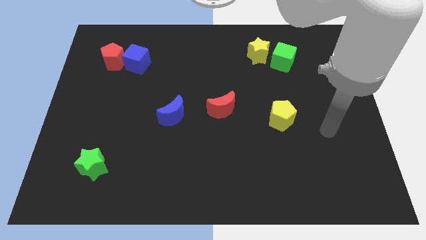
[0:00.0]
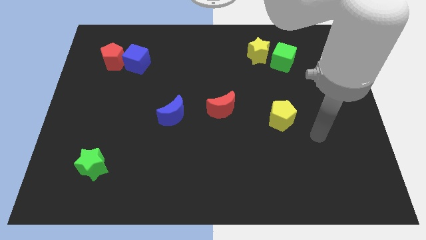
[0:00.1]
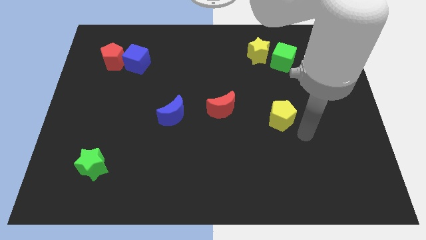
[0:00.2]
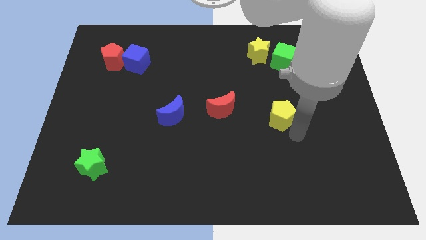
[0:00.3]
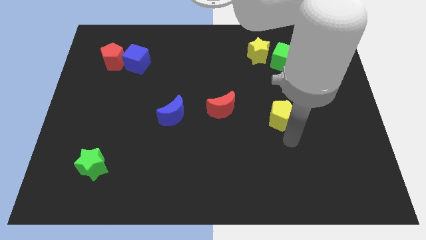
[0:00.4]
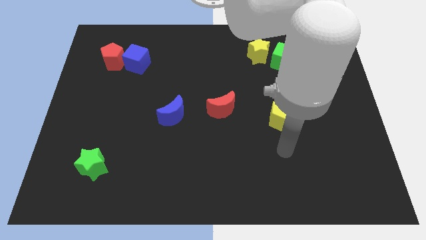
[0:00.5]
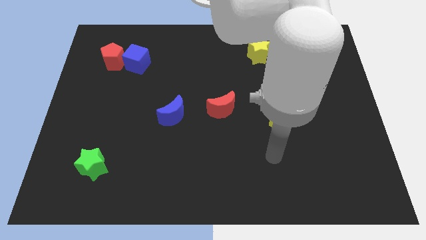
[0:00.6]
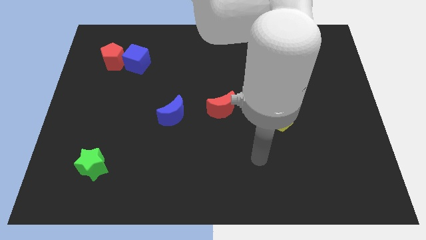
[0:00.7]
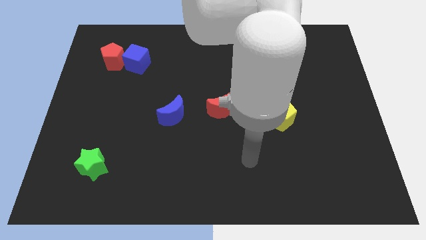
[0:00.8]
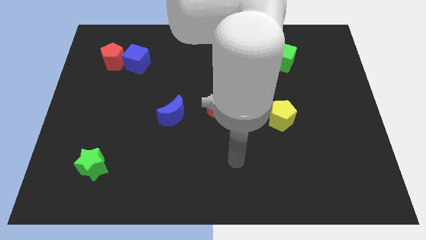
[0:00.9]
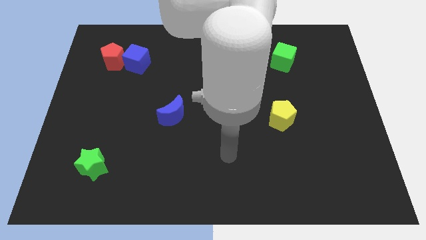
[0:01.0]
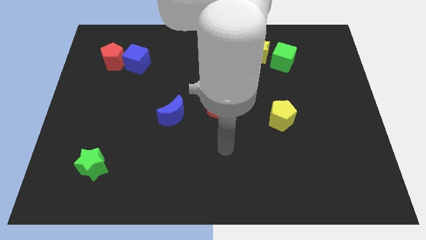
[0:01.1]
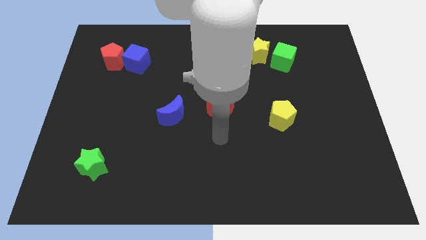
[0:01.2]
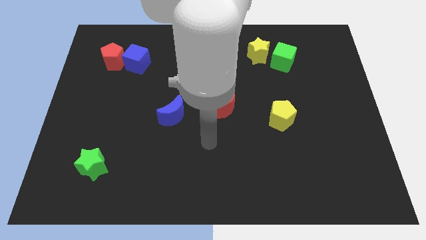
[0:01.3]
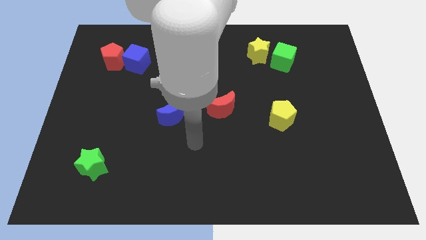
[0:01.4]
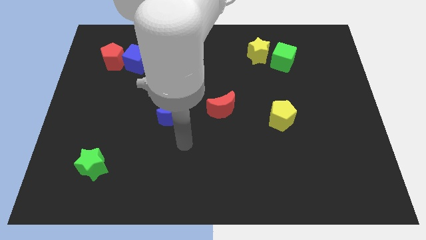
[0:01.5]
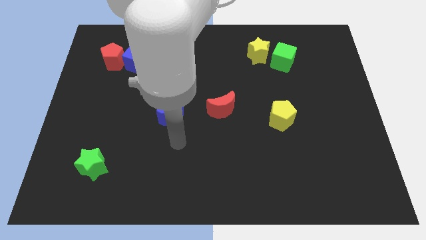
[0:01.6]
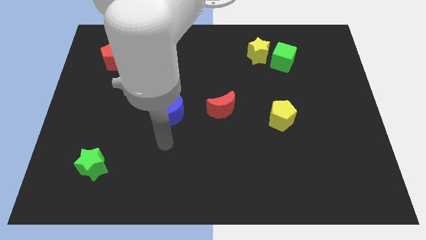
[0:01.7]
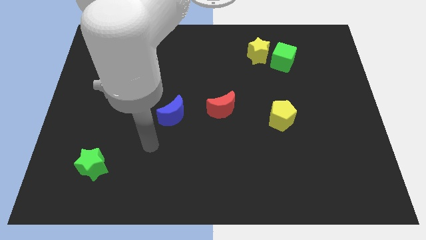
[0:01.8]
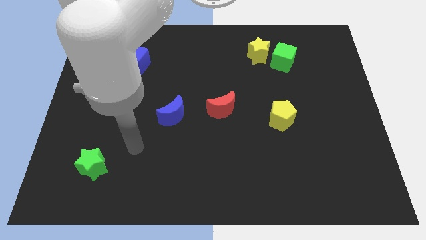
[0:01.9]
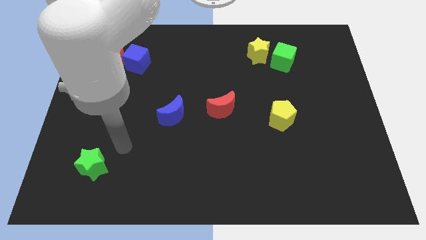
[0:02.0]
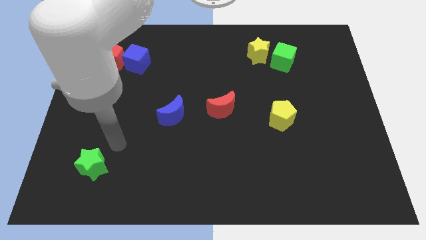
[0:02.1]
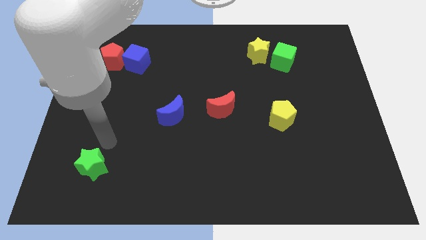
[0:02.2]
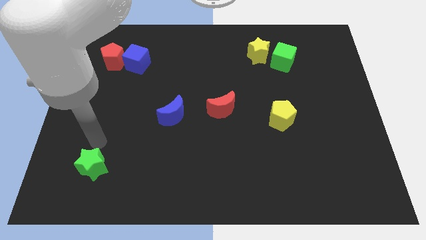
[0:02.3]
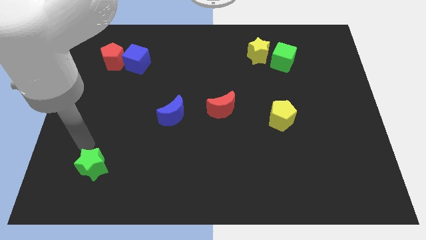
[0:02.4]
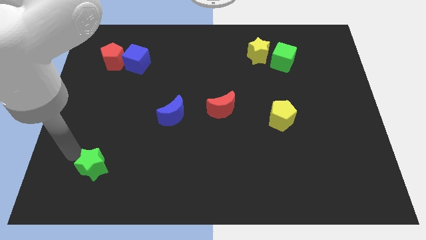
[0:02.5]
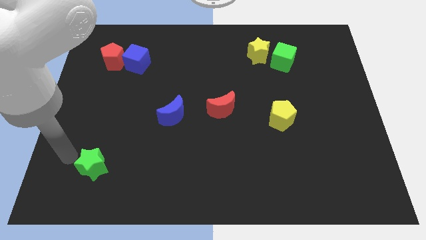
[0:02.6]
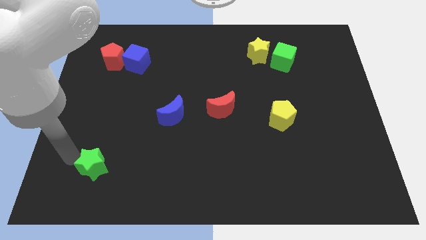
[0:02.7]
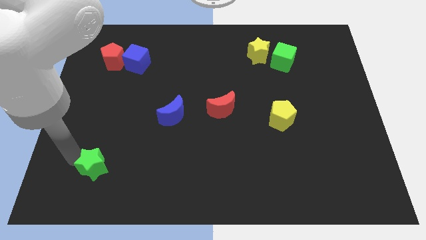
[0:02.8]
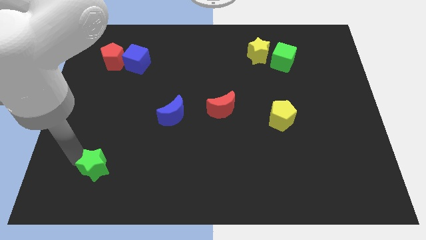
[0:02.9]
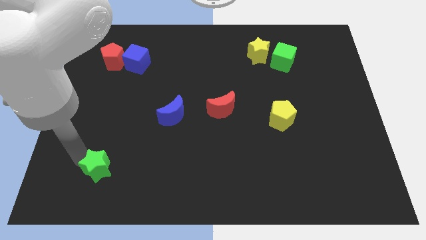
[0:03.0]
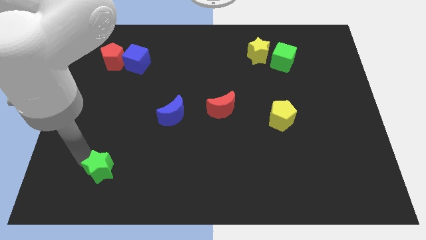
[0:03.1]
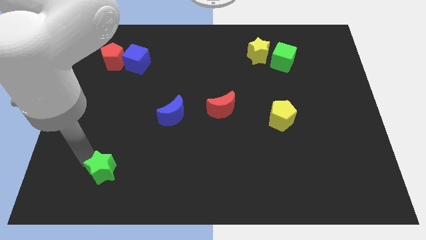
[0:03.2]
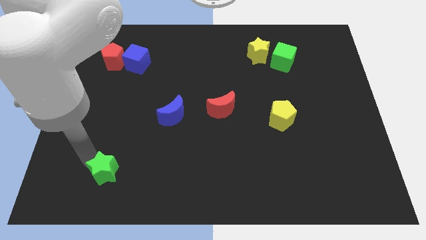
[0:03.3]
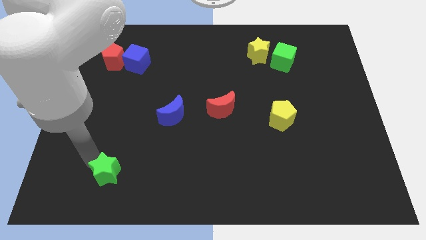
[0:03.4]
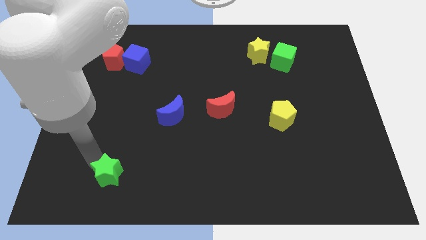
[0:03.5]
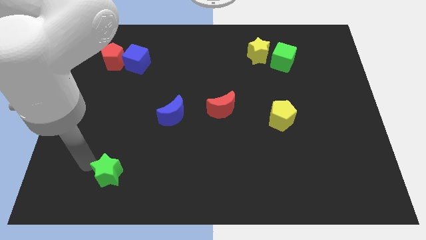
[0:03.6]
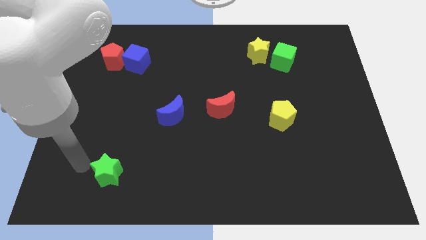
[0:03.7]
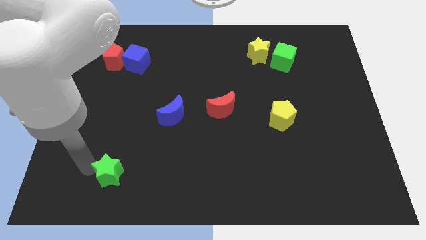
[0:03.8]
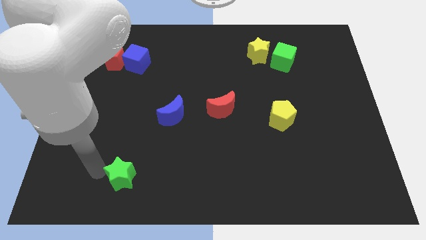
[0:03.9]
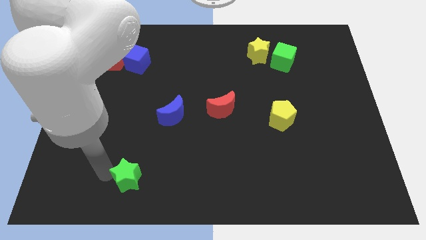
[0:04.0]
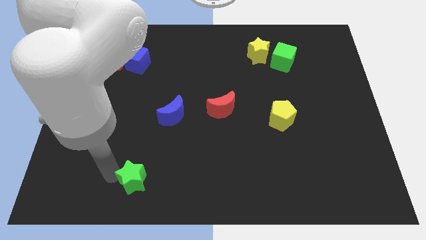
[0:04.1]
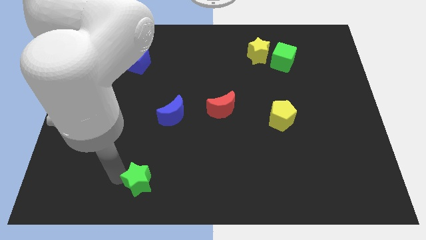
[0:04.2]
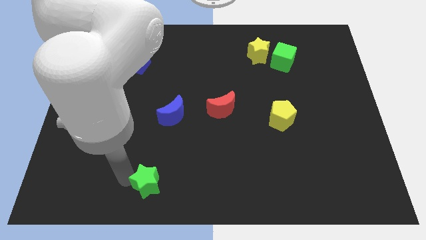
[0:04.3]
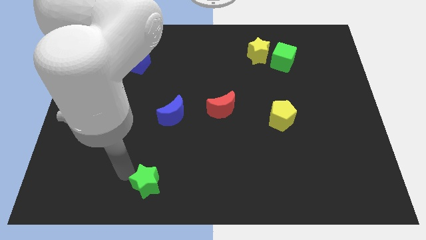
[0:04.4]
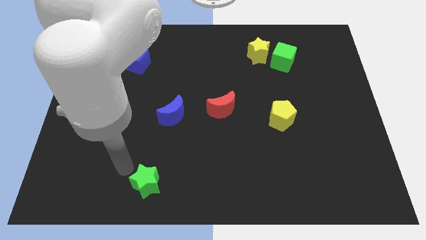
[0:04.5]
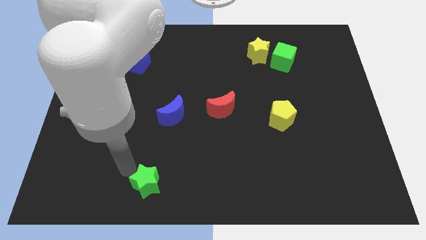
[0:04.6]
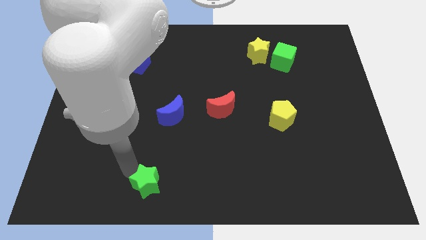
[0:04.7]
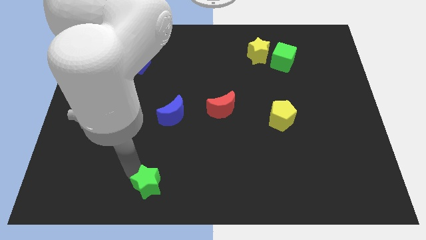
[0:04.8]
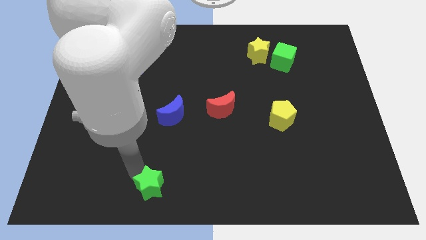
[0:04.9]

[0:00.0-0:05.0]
push the green star to the bottom side

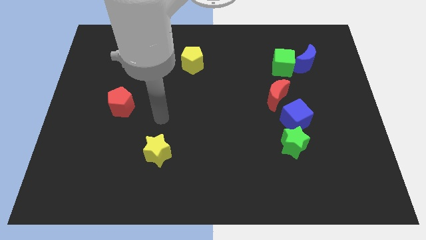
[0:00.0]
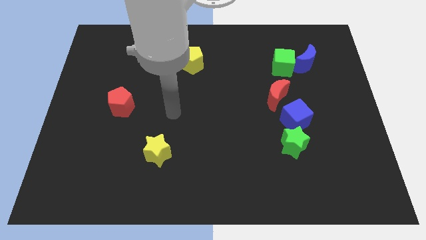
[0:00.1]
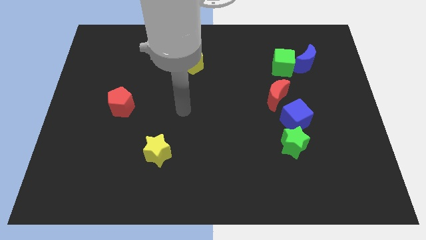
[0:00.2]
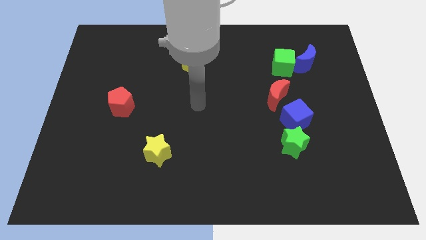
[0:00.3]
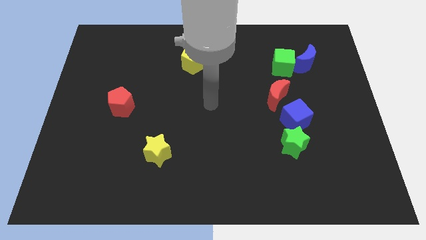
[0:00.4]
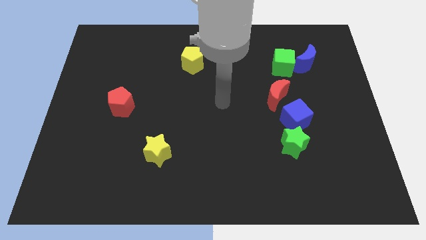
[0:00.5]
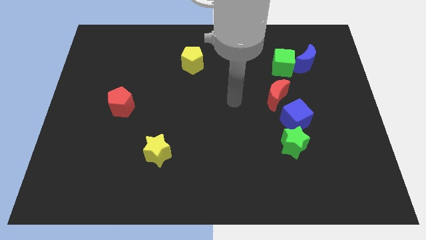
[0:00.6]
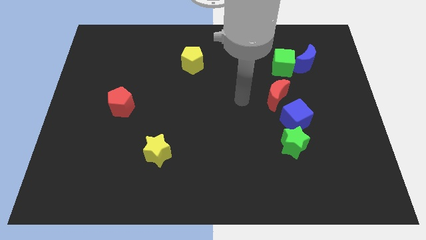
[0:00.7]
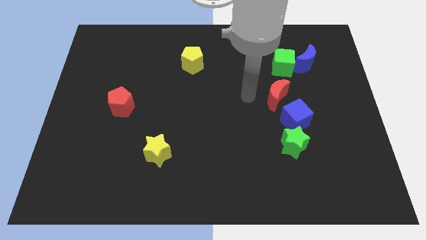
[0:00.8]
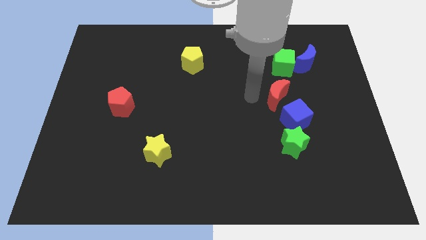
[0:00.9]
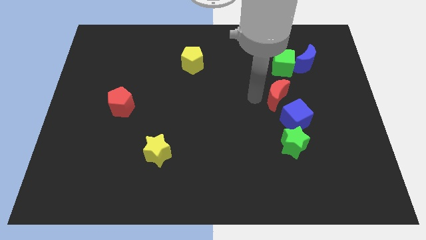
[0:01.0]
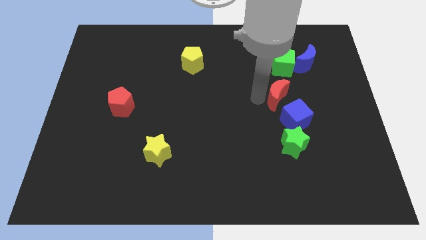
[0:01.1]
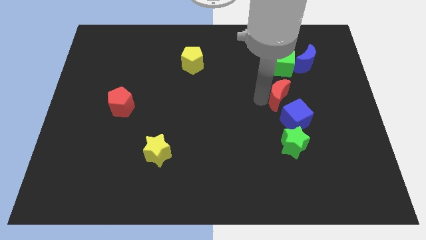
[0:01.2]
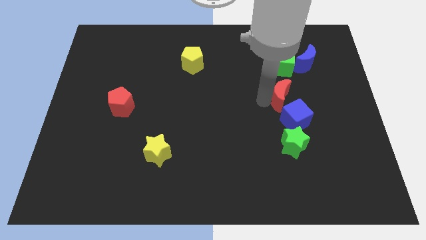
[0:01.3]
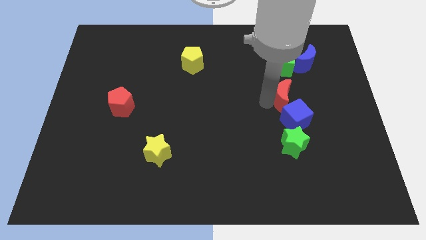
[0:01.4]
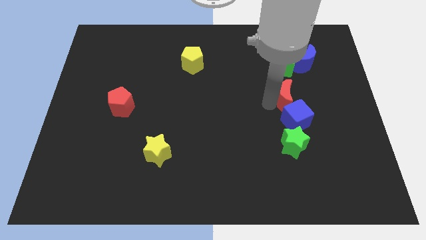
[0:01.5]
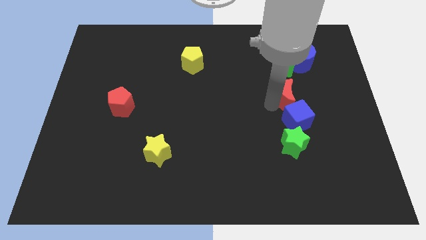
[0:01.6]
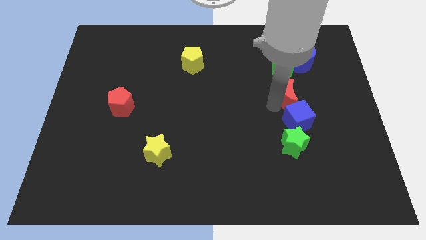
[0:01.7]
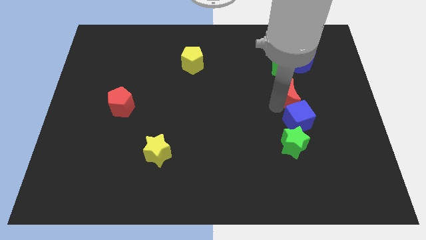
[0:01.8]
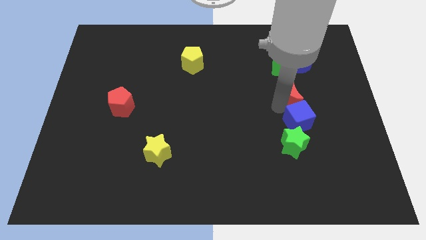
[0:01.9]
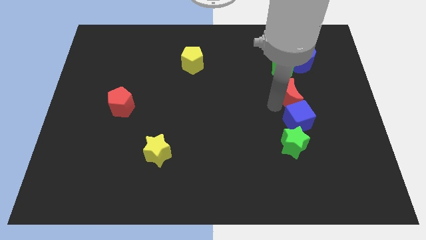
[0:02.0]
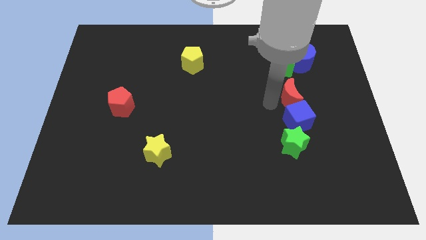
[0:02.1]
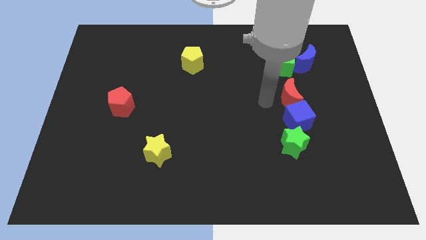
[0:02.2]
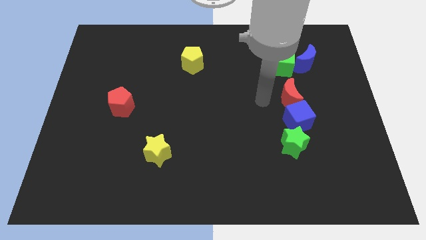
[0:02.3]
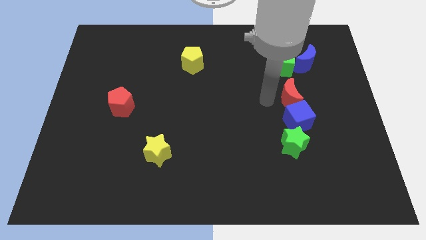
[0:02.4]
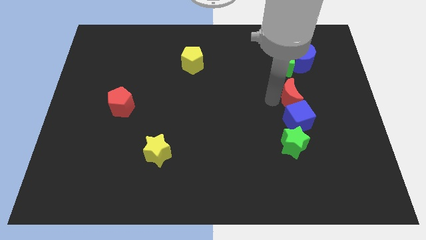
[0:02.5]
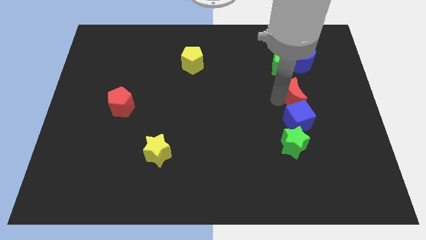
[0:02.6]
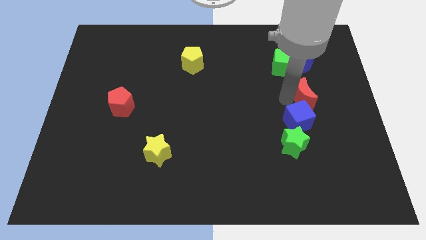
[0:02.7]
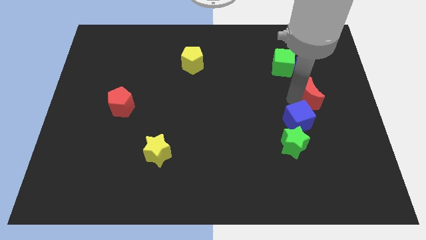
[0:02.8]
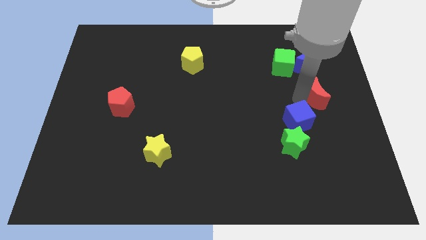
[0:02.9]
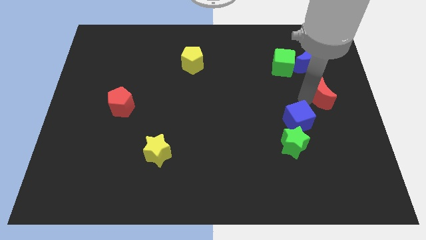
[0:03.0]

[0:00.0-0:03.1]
push the red moon to the right side of the board
